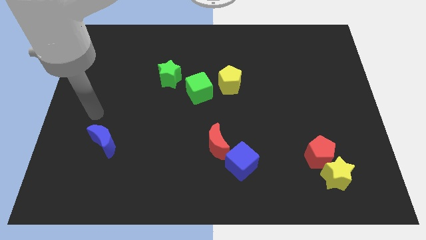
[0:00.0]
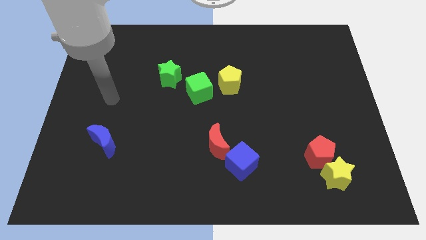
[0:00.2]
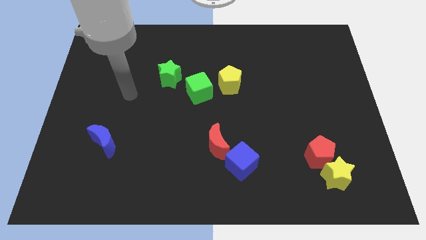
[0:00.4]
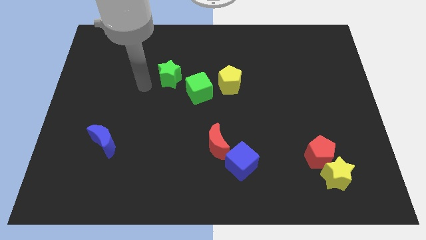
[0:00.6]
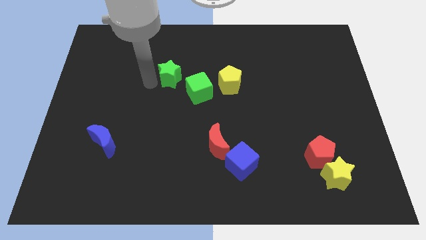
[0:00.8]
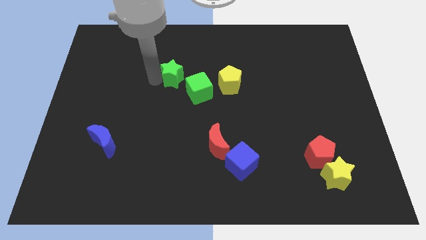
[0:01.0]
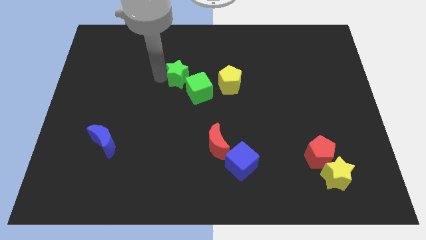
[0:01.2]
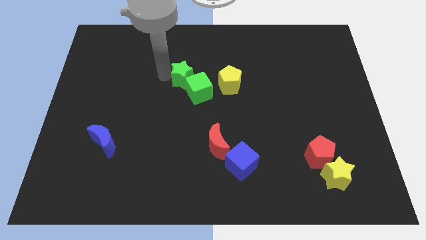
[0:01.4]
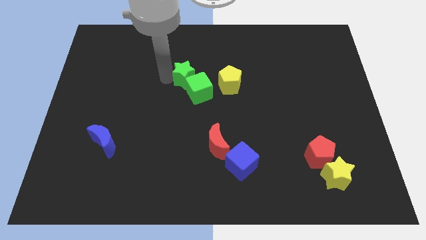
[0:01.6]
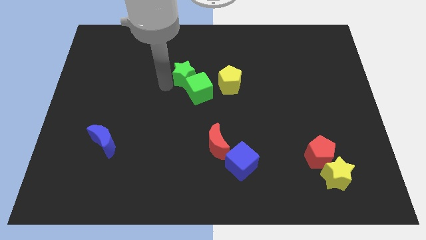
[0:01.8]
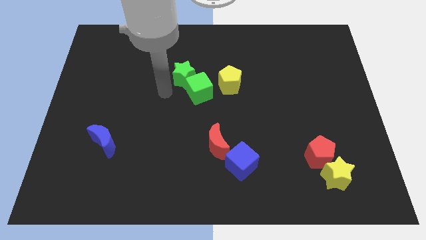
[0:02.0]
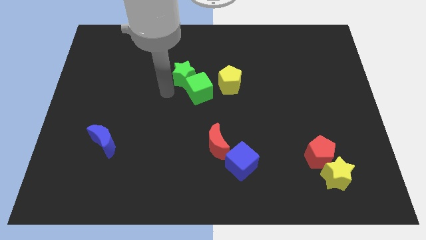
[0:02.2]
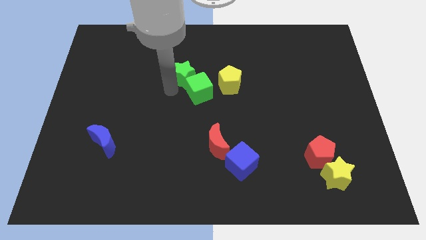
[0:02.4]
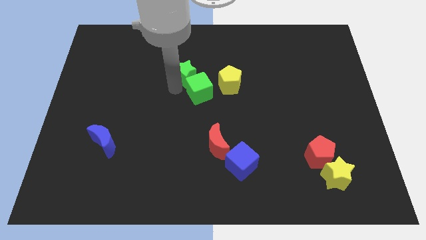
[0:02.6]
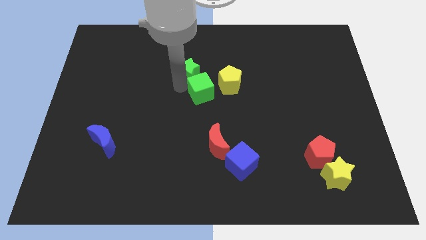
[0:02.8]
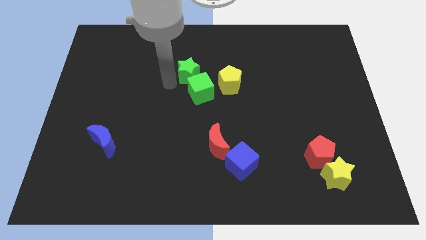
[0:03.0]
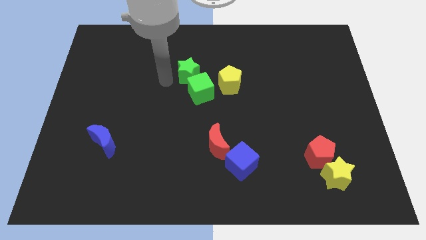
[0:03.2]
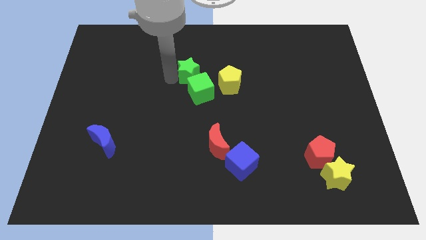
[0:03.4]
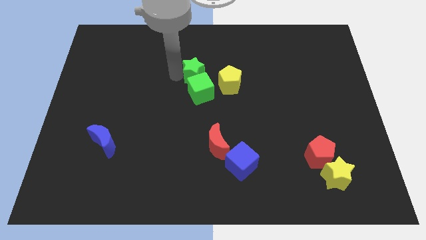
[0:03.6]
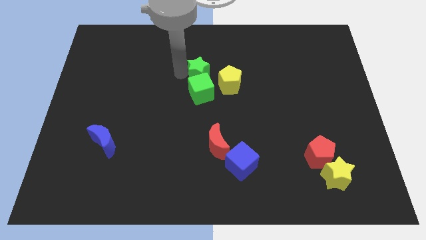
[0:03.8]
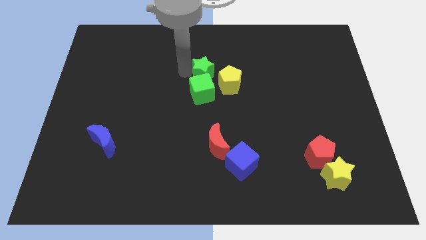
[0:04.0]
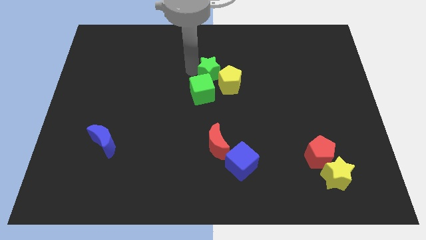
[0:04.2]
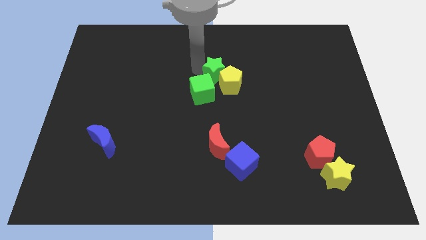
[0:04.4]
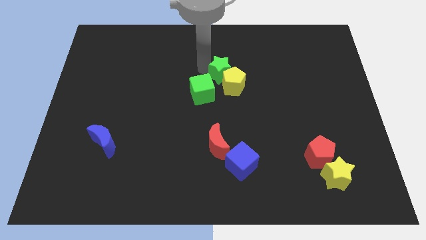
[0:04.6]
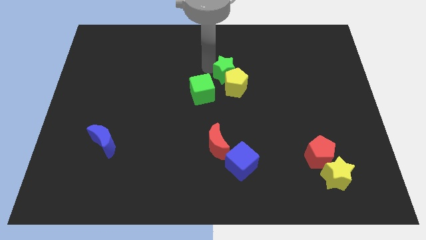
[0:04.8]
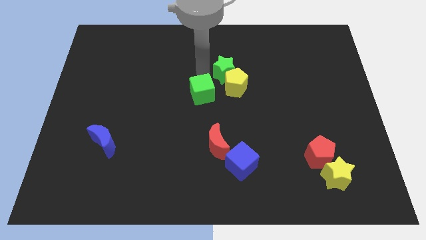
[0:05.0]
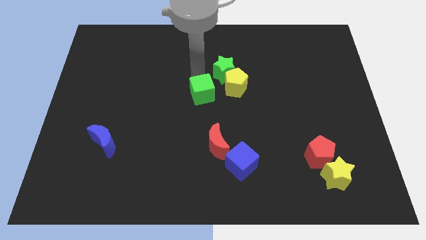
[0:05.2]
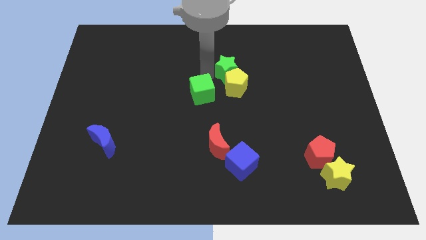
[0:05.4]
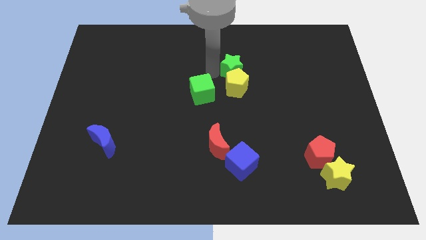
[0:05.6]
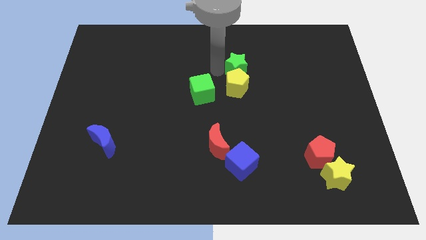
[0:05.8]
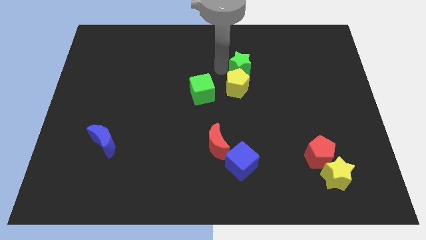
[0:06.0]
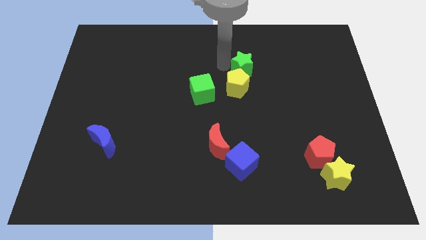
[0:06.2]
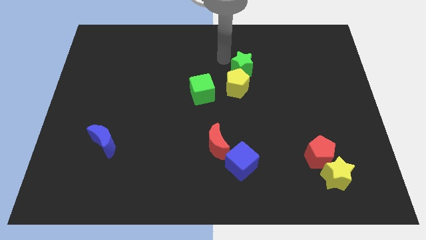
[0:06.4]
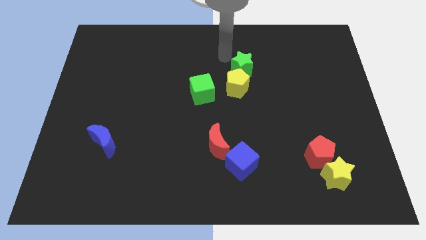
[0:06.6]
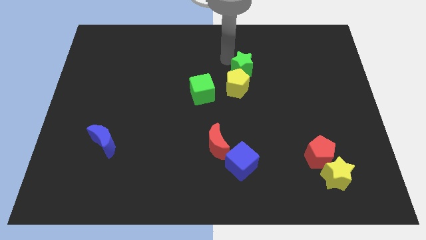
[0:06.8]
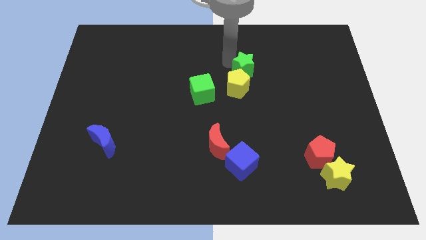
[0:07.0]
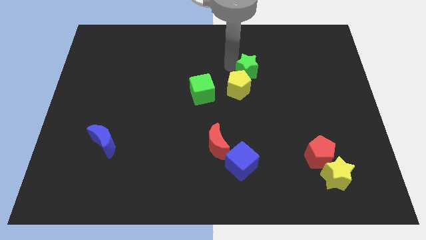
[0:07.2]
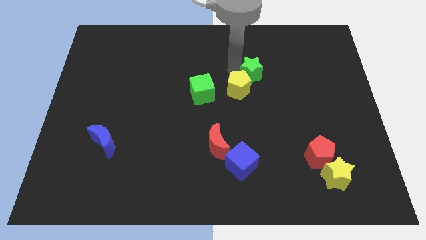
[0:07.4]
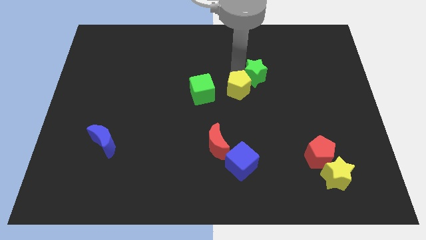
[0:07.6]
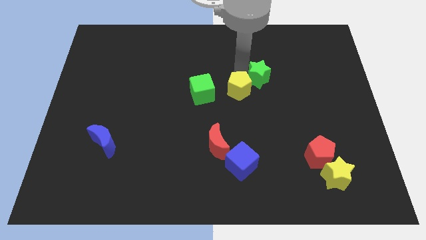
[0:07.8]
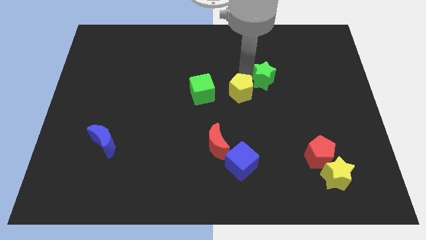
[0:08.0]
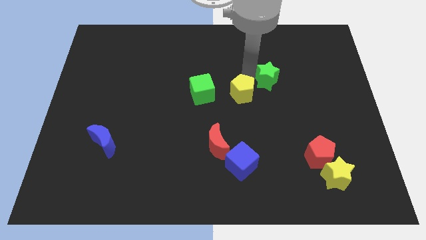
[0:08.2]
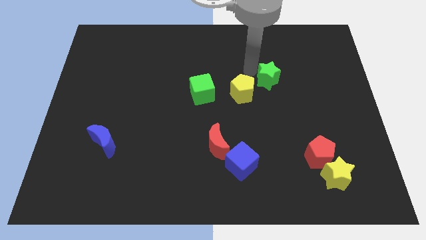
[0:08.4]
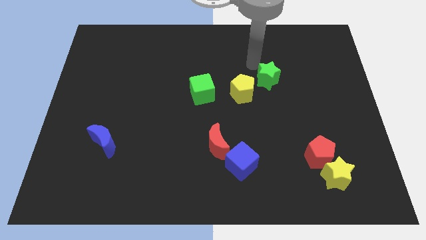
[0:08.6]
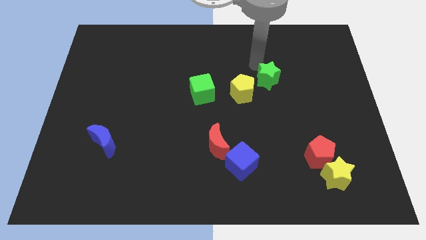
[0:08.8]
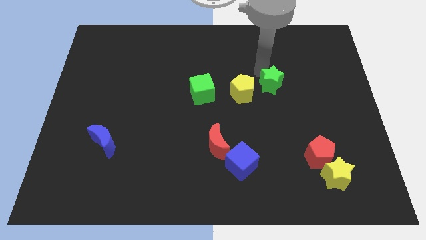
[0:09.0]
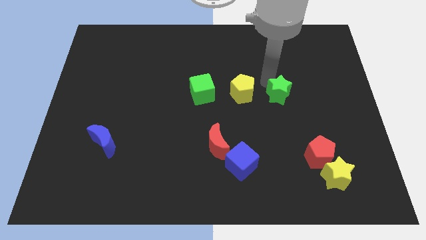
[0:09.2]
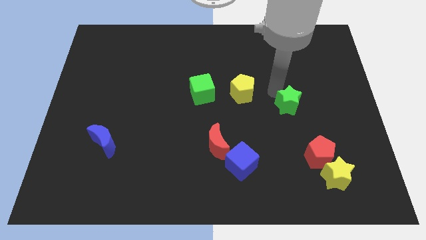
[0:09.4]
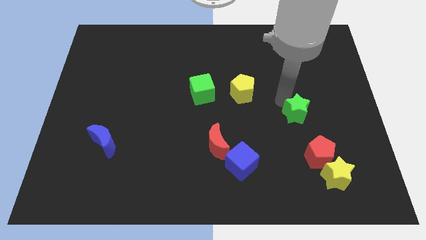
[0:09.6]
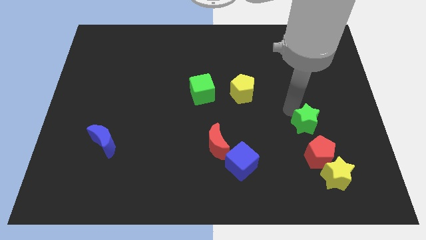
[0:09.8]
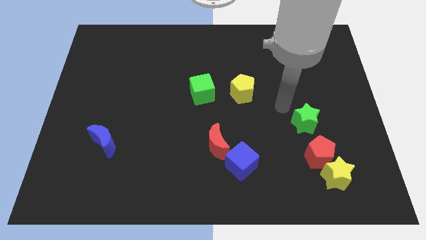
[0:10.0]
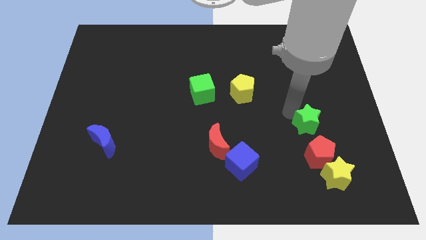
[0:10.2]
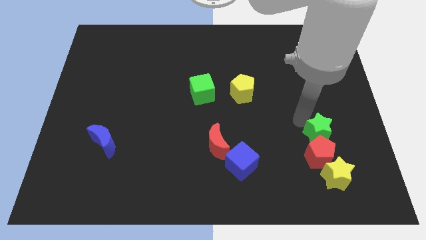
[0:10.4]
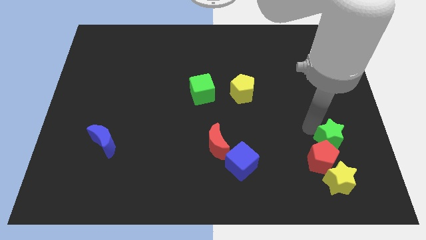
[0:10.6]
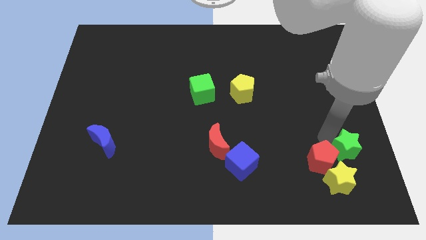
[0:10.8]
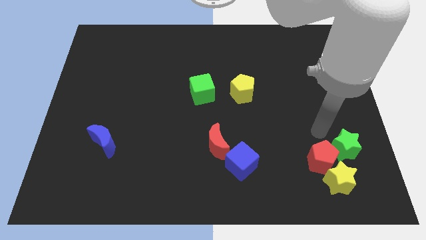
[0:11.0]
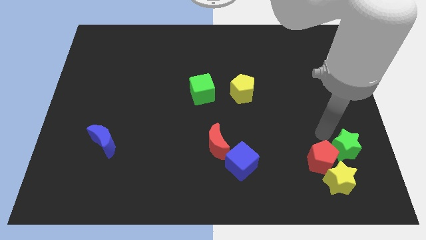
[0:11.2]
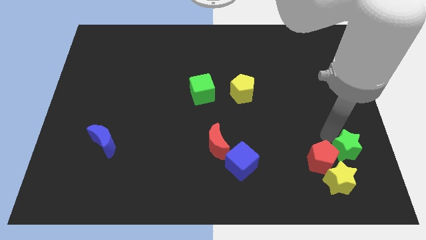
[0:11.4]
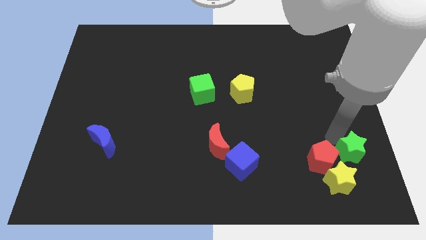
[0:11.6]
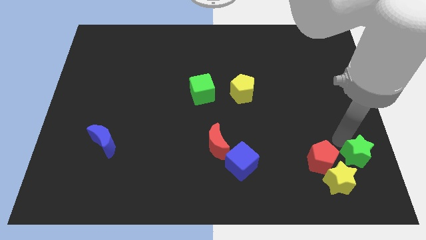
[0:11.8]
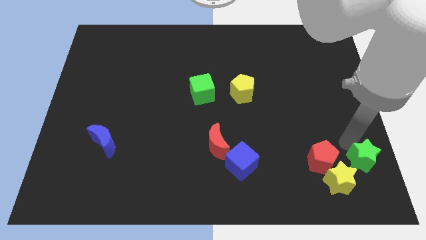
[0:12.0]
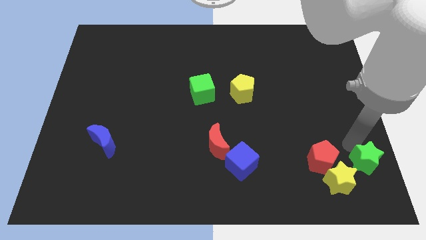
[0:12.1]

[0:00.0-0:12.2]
put the green star to the bottom right
